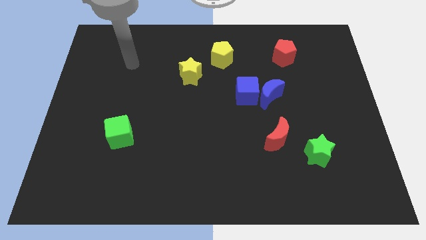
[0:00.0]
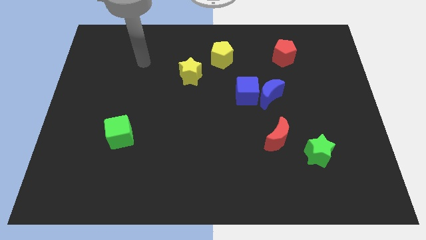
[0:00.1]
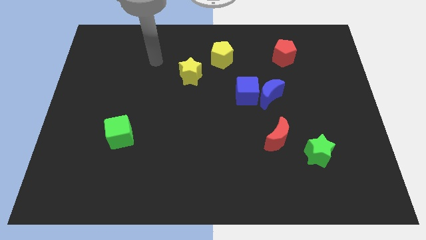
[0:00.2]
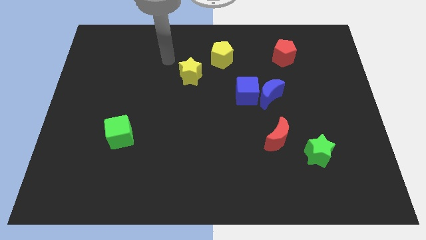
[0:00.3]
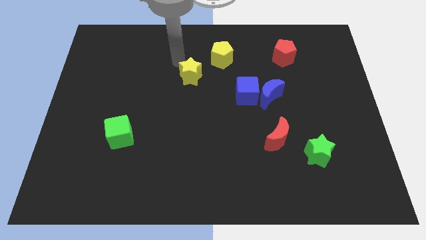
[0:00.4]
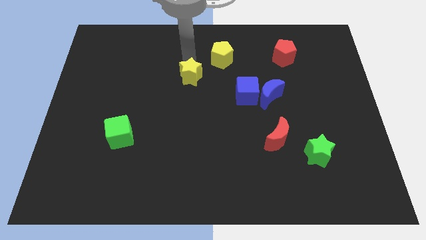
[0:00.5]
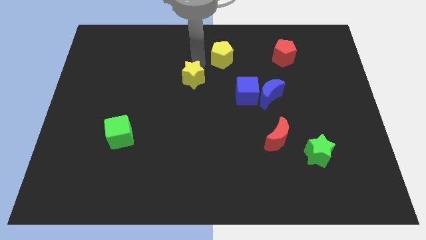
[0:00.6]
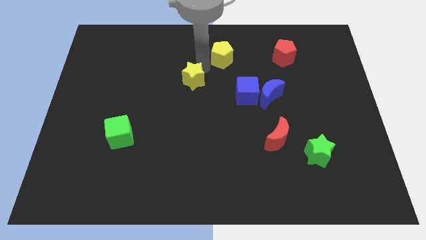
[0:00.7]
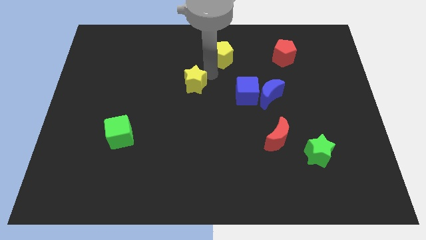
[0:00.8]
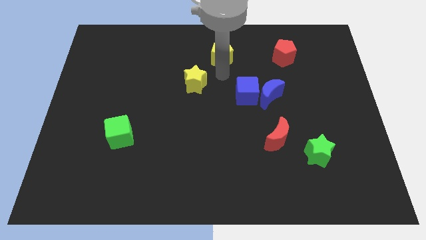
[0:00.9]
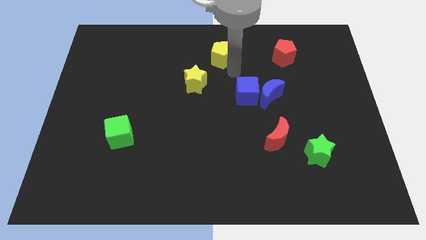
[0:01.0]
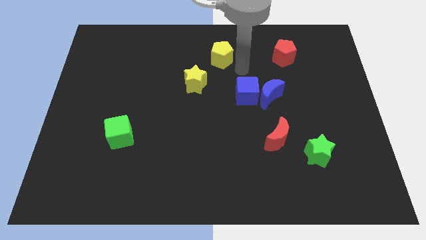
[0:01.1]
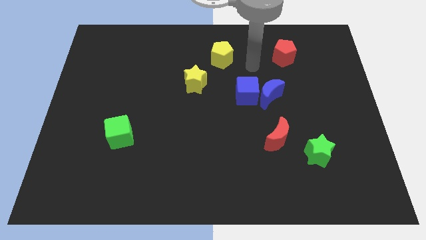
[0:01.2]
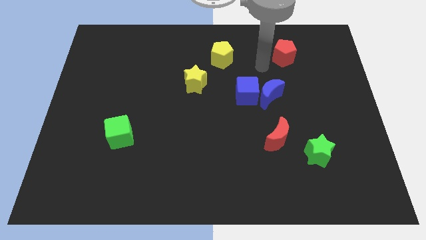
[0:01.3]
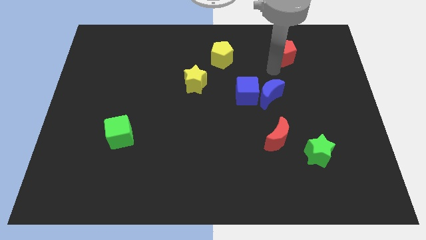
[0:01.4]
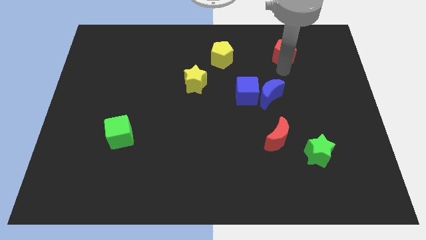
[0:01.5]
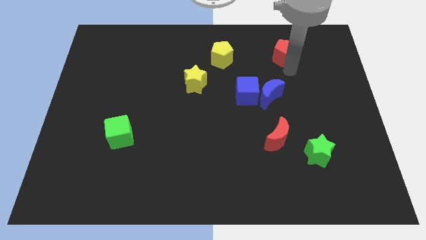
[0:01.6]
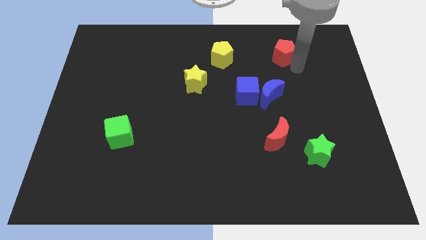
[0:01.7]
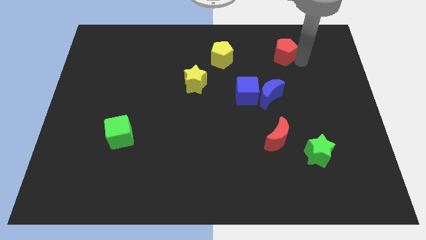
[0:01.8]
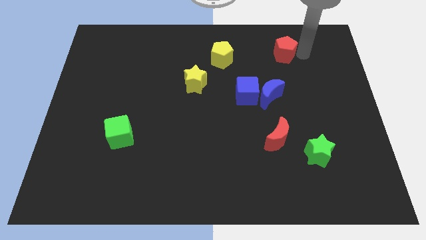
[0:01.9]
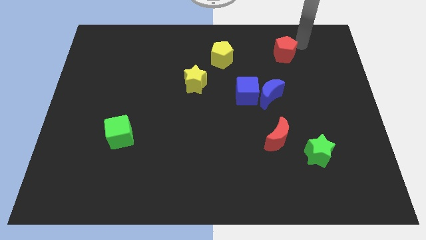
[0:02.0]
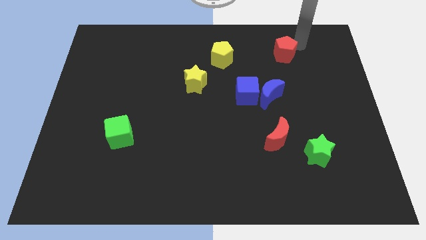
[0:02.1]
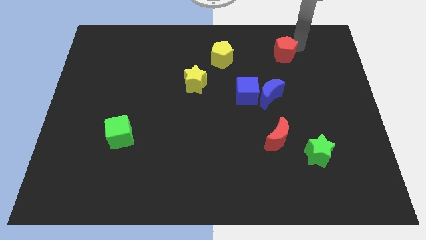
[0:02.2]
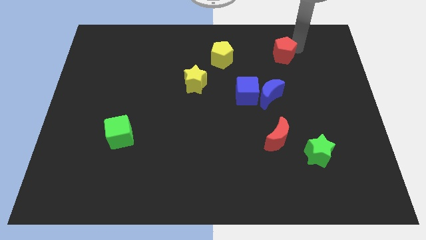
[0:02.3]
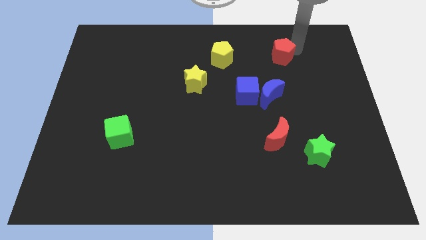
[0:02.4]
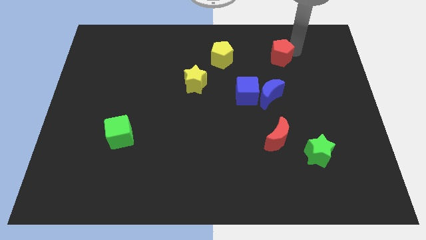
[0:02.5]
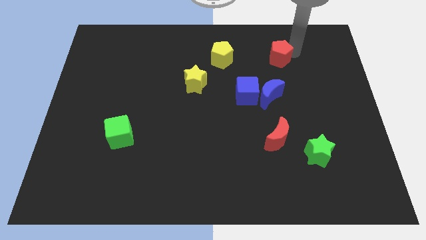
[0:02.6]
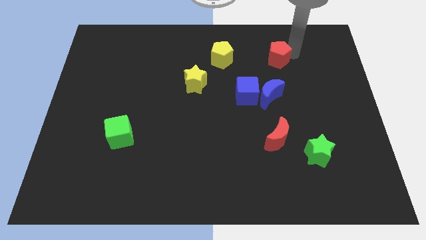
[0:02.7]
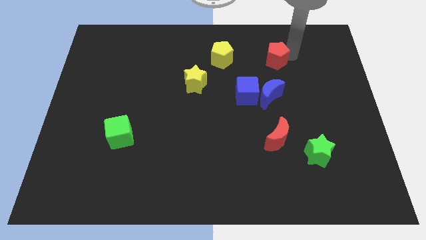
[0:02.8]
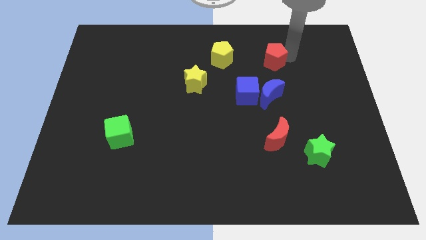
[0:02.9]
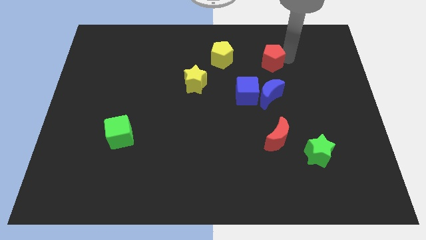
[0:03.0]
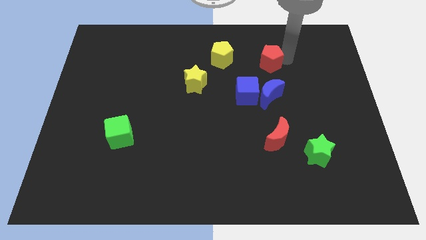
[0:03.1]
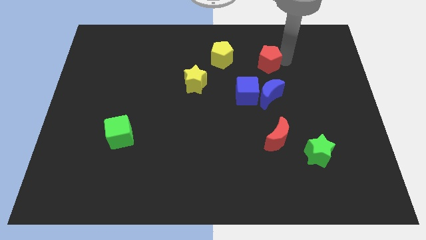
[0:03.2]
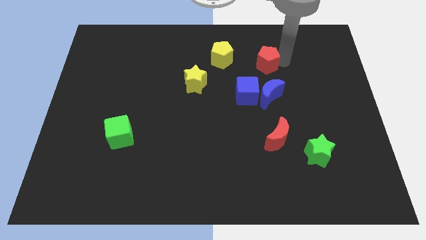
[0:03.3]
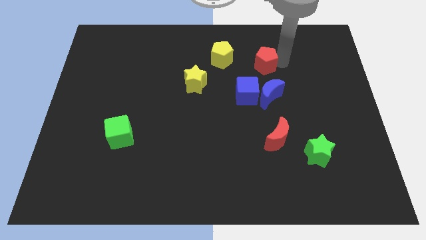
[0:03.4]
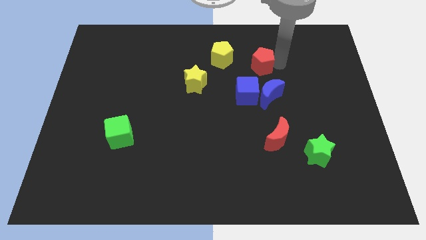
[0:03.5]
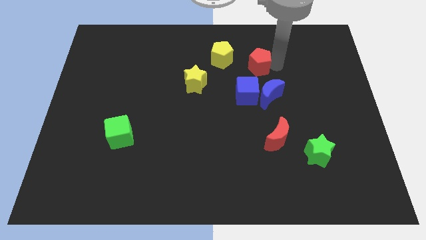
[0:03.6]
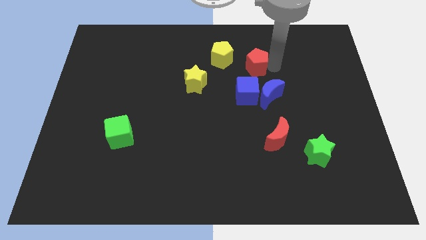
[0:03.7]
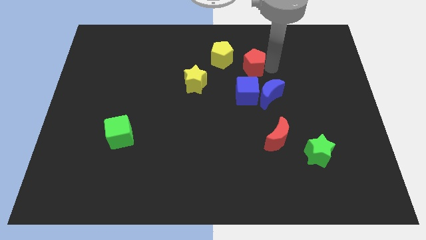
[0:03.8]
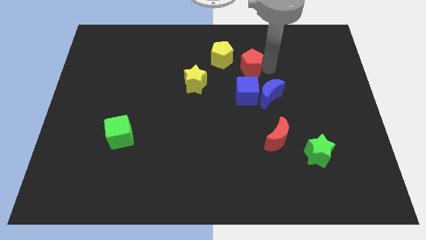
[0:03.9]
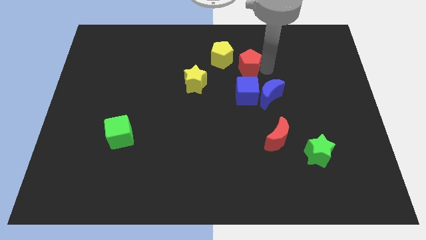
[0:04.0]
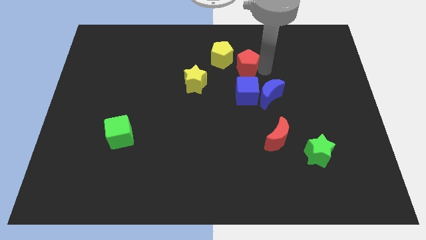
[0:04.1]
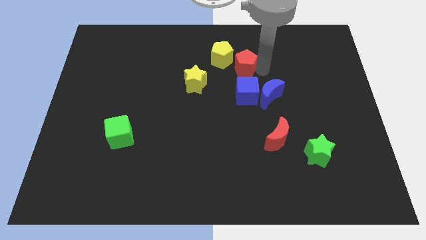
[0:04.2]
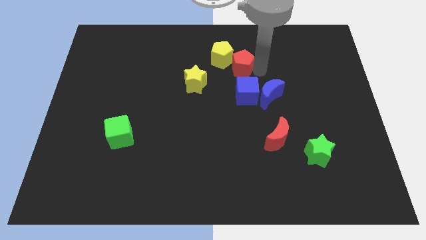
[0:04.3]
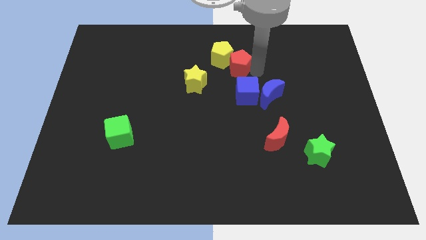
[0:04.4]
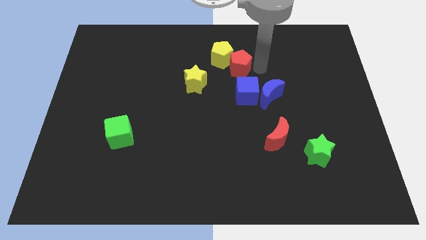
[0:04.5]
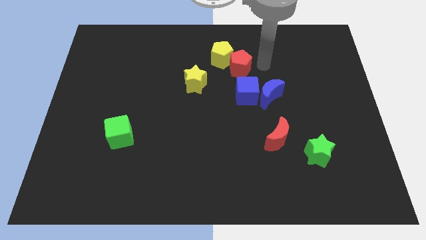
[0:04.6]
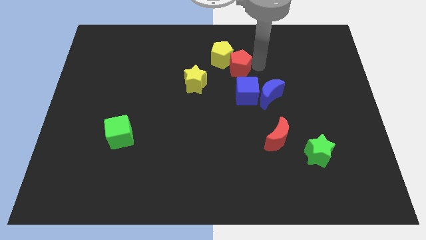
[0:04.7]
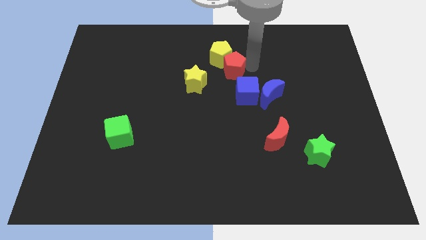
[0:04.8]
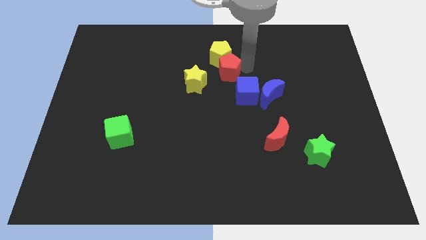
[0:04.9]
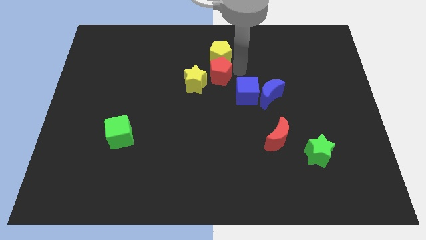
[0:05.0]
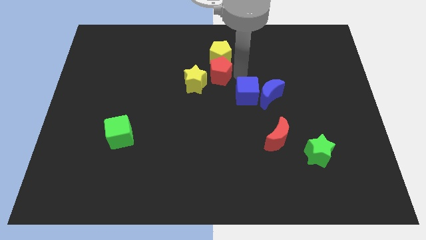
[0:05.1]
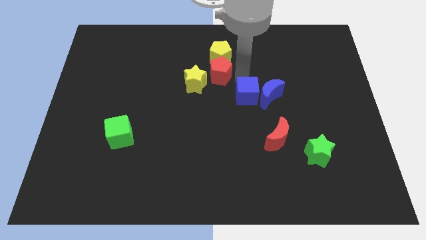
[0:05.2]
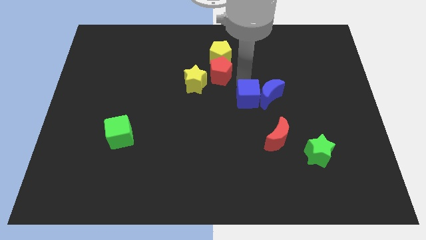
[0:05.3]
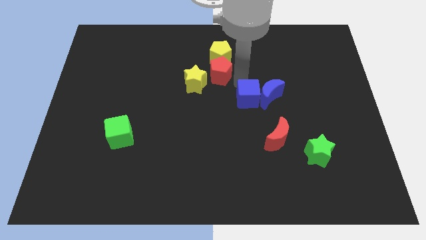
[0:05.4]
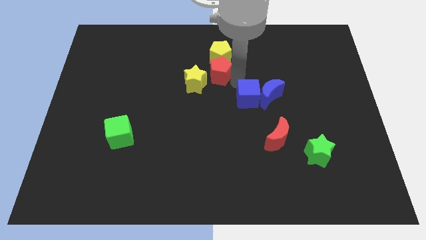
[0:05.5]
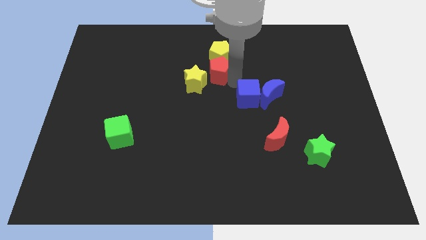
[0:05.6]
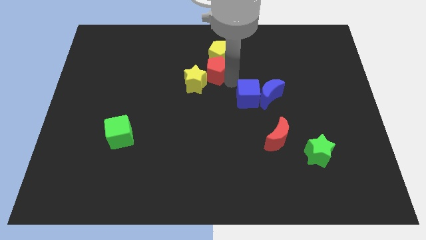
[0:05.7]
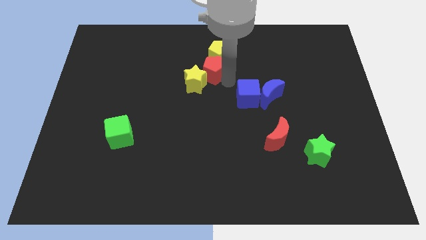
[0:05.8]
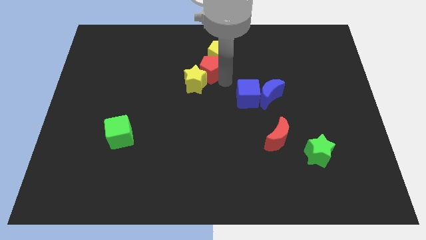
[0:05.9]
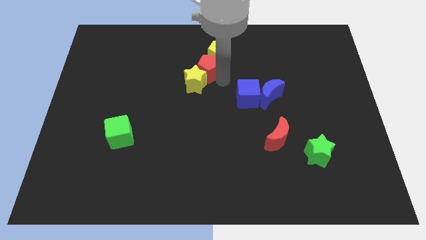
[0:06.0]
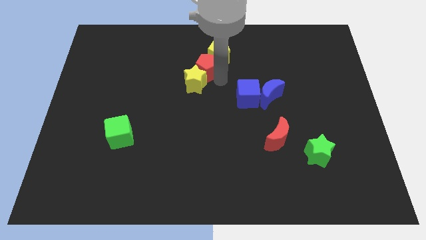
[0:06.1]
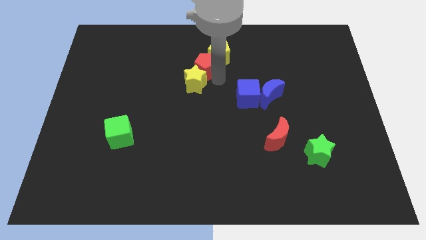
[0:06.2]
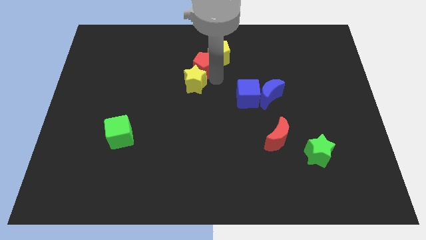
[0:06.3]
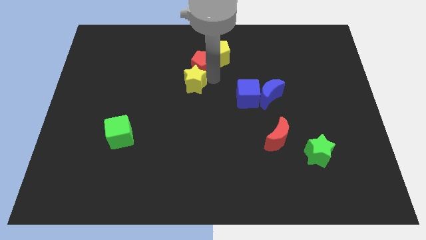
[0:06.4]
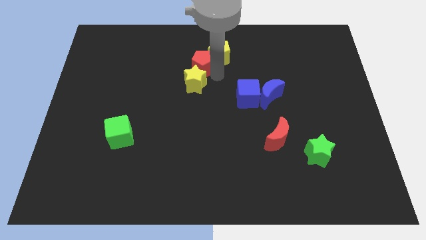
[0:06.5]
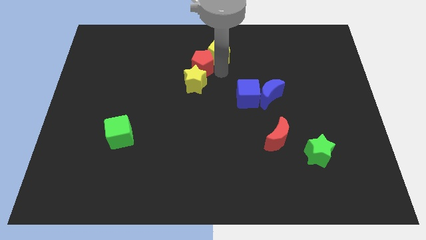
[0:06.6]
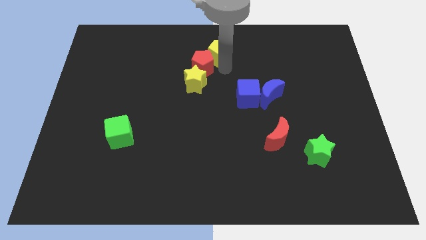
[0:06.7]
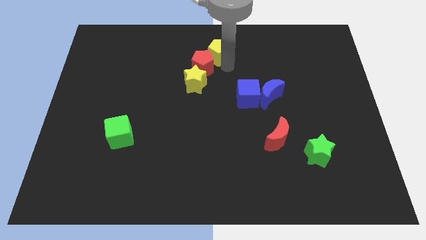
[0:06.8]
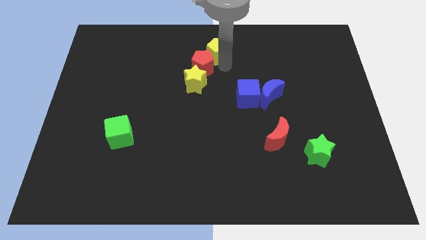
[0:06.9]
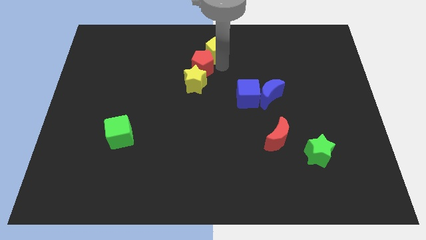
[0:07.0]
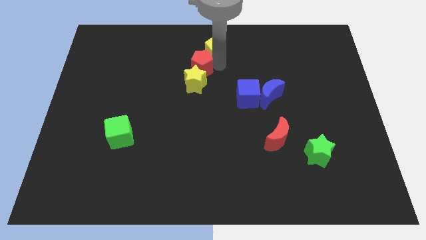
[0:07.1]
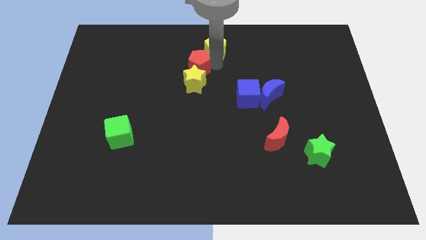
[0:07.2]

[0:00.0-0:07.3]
push the red pentagon to the top left of the yellow star

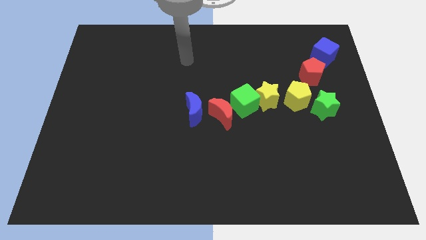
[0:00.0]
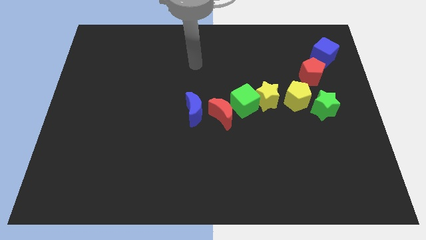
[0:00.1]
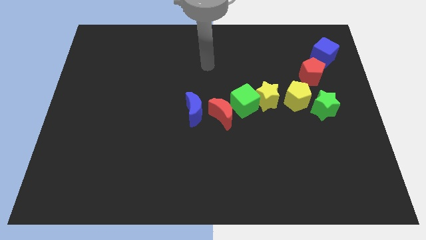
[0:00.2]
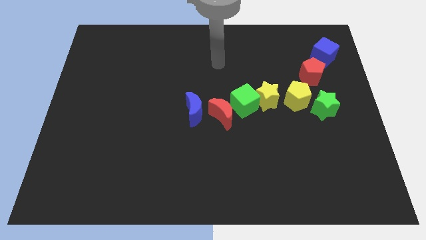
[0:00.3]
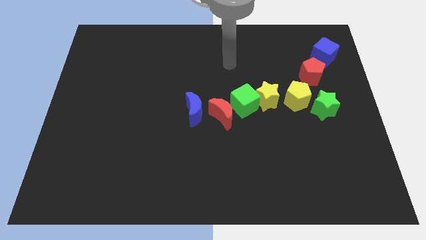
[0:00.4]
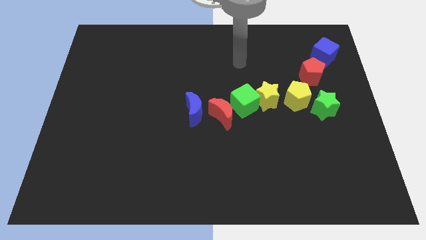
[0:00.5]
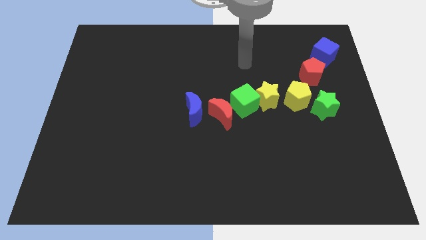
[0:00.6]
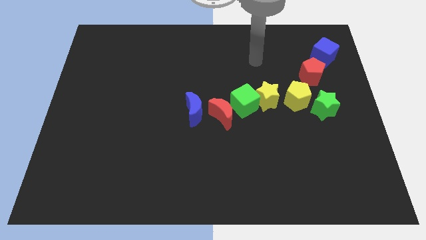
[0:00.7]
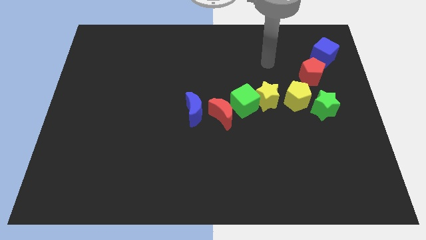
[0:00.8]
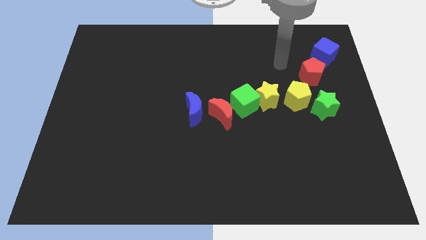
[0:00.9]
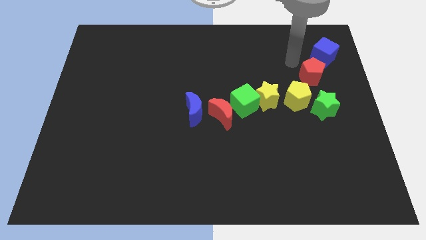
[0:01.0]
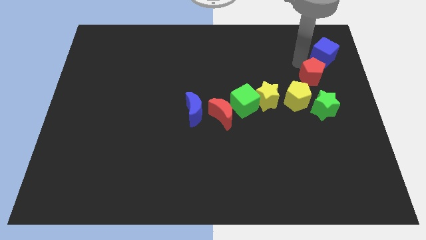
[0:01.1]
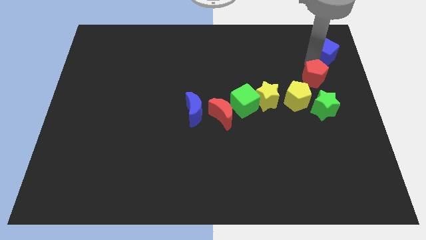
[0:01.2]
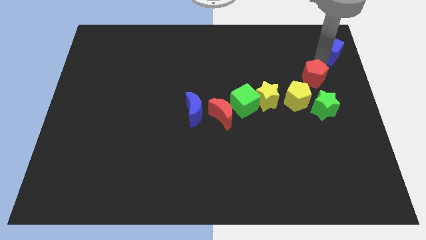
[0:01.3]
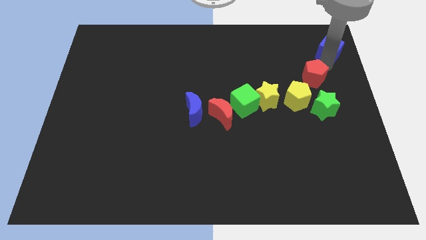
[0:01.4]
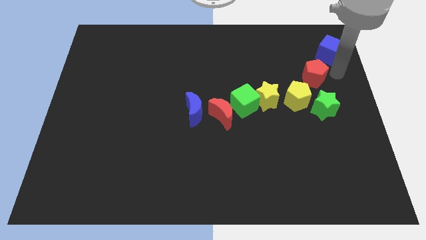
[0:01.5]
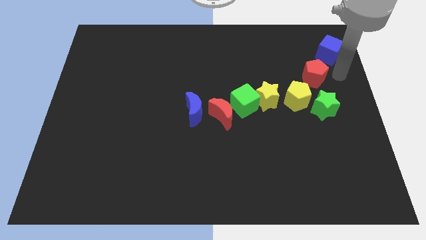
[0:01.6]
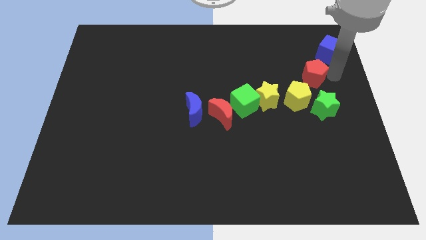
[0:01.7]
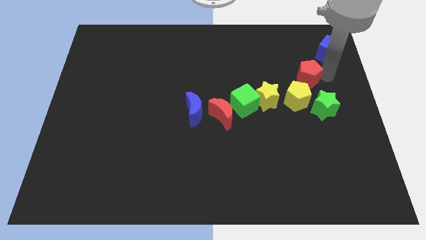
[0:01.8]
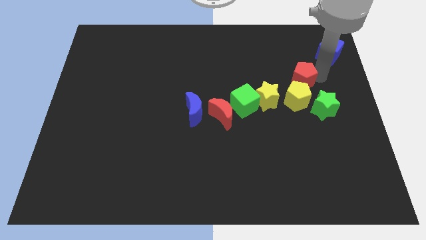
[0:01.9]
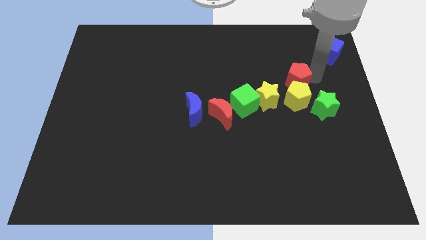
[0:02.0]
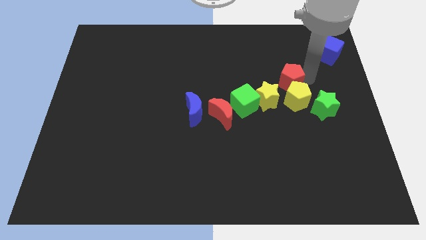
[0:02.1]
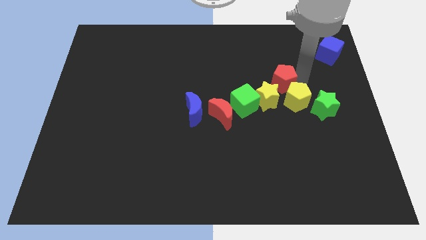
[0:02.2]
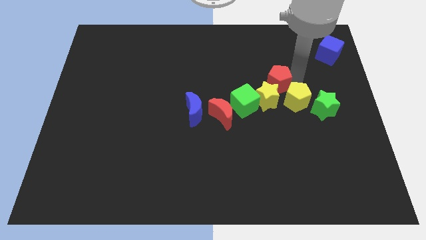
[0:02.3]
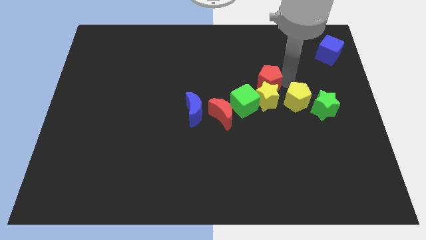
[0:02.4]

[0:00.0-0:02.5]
put the red pentagon to the top left of the yellow star
